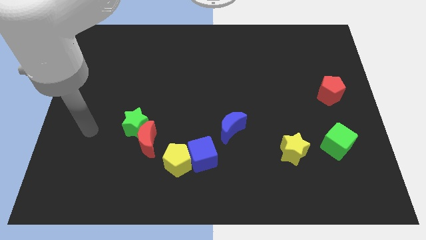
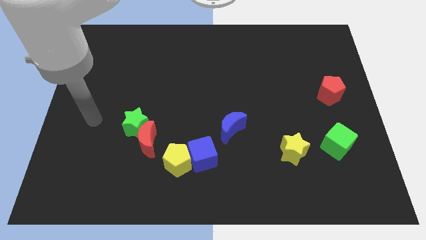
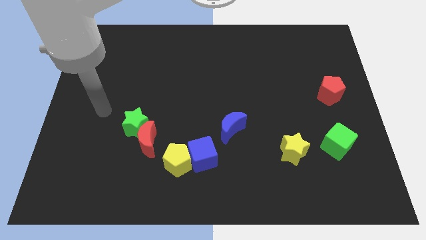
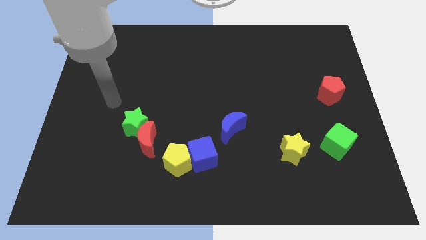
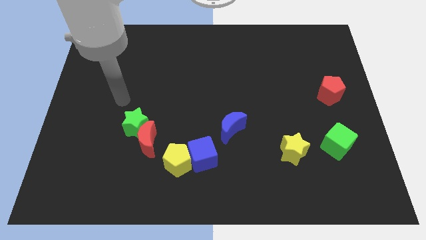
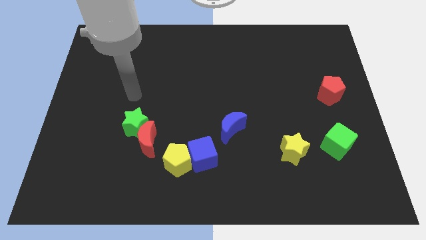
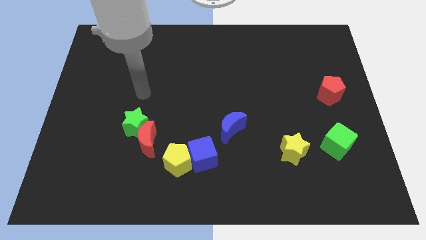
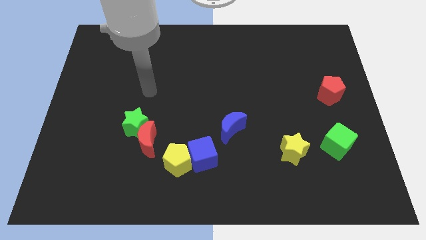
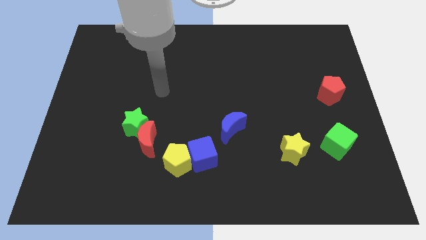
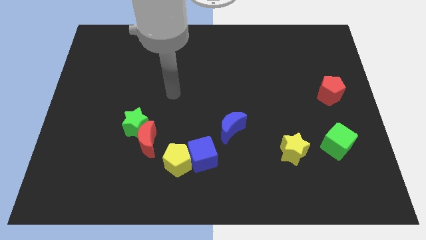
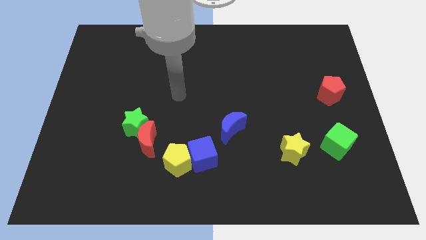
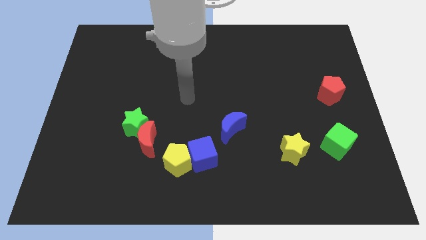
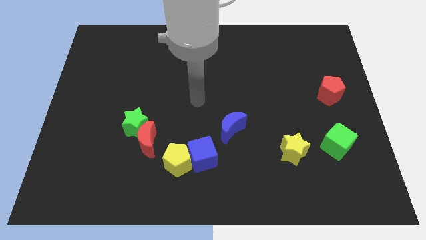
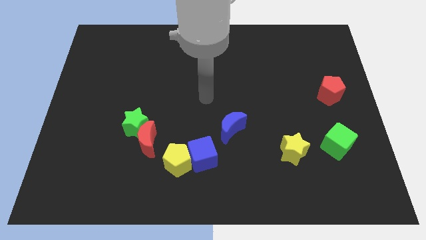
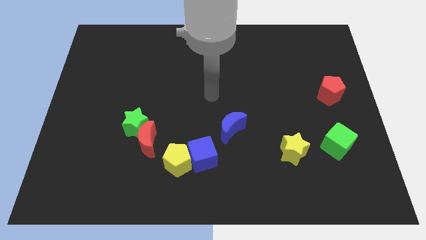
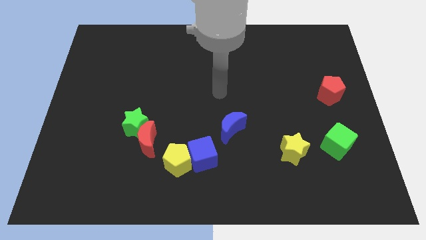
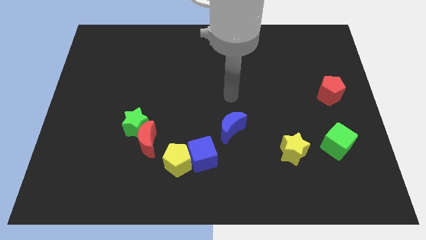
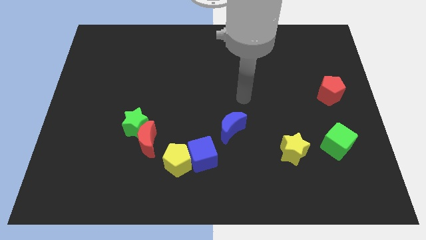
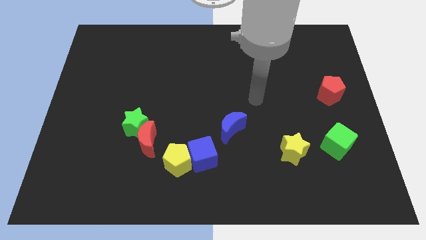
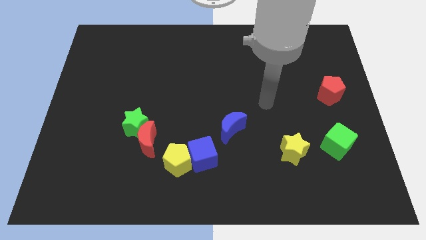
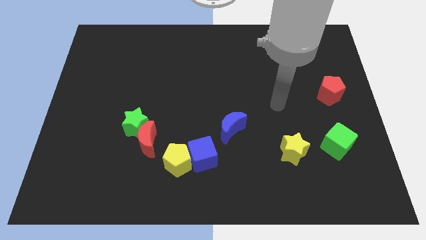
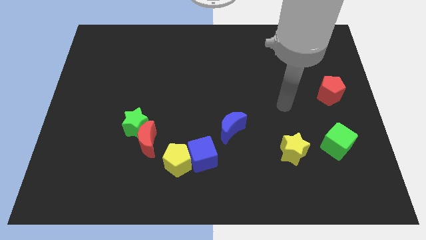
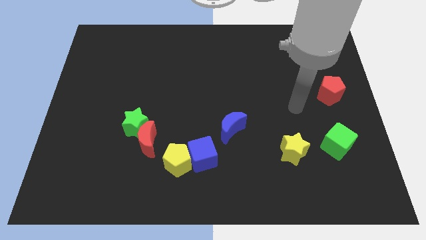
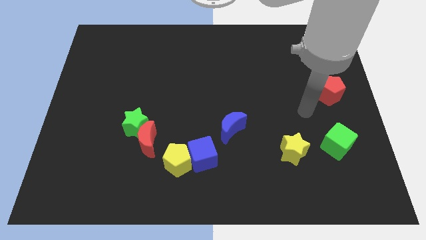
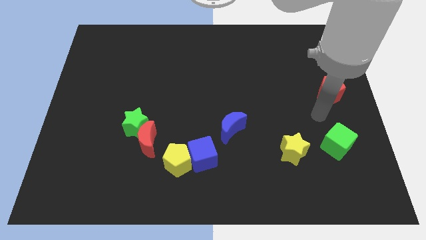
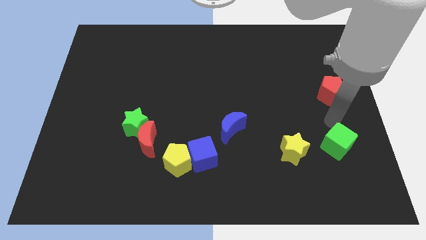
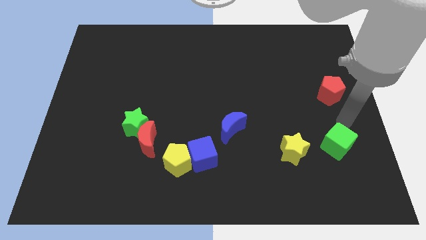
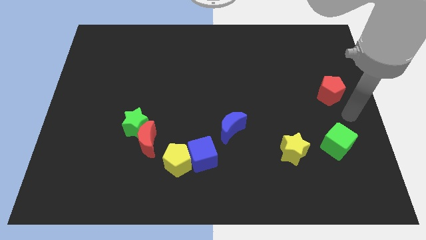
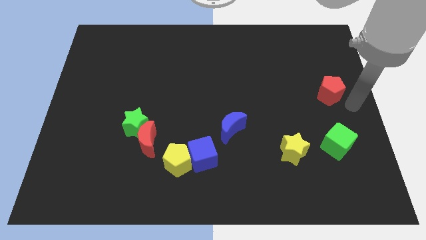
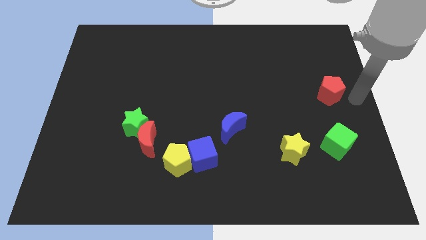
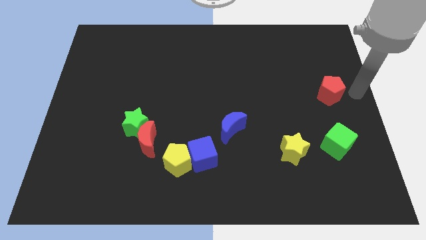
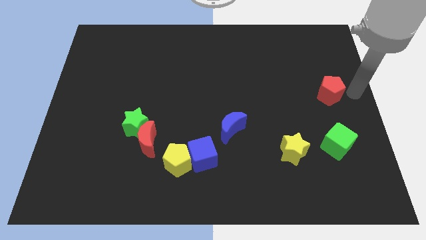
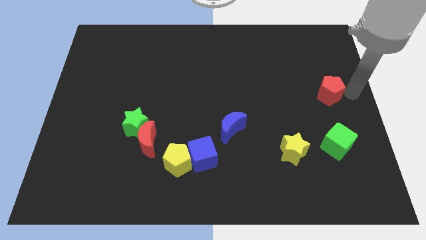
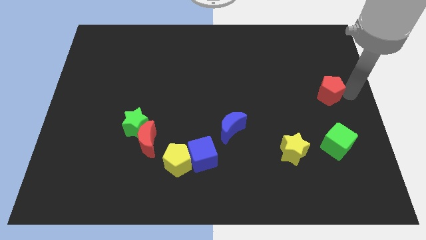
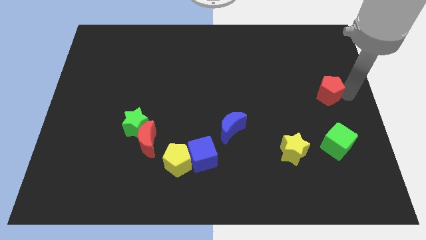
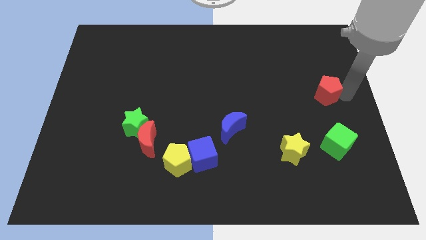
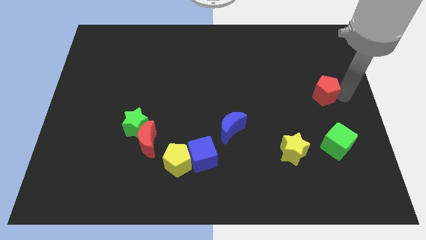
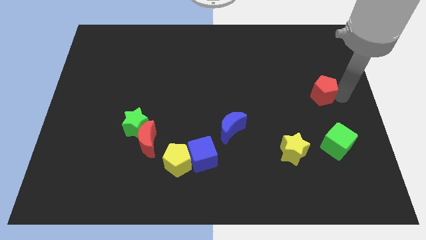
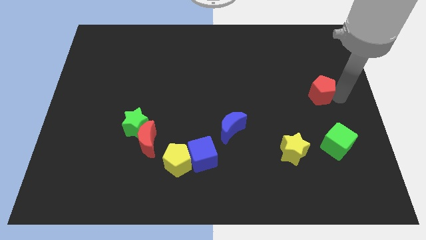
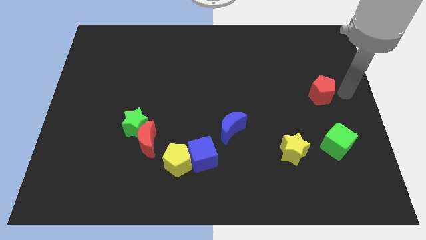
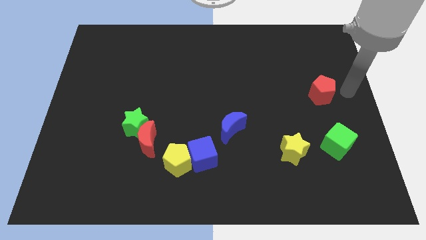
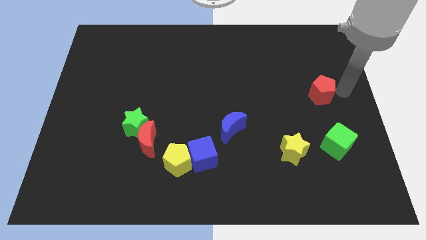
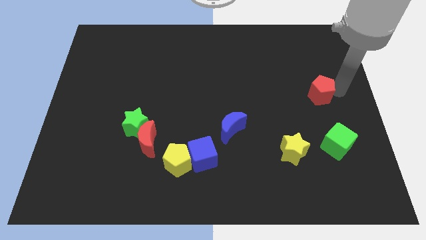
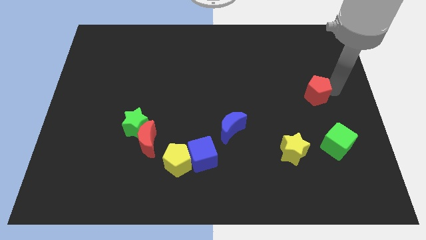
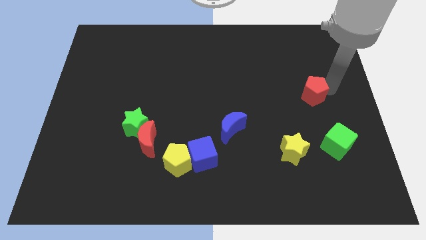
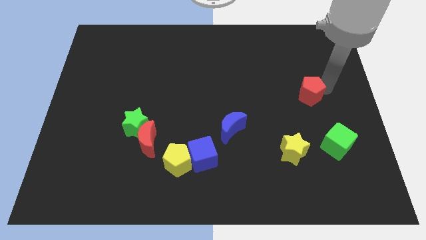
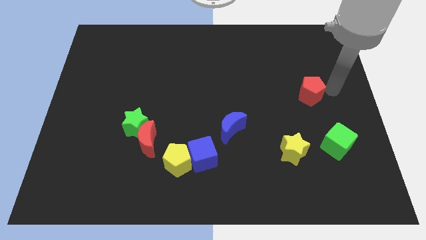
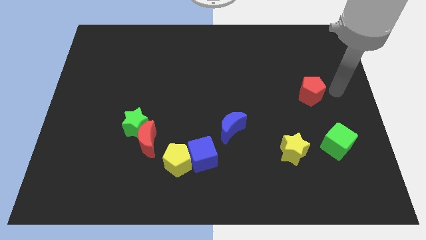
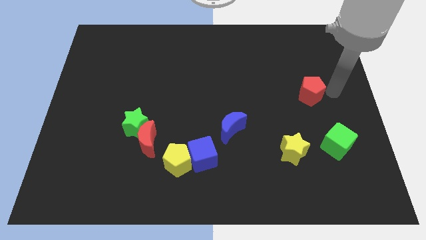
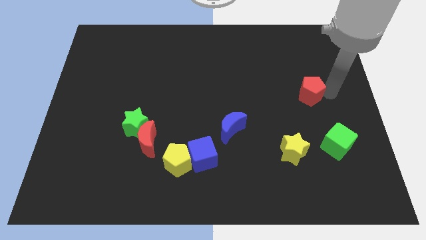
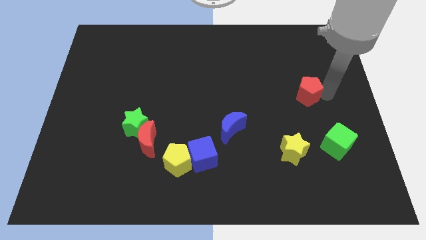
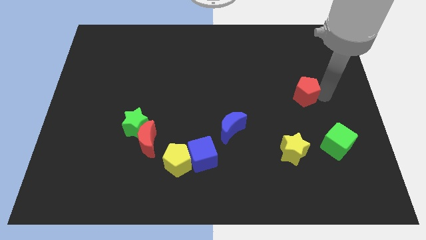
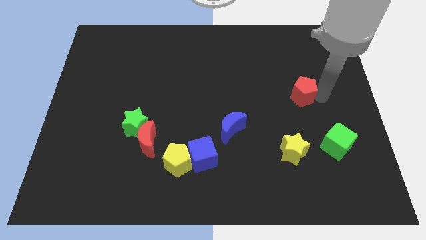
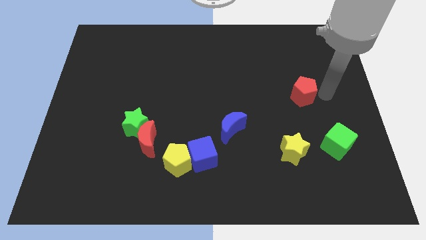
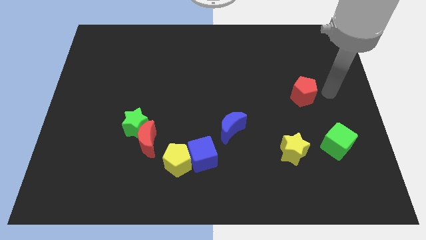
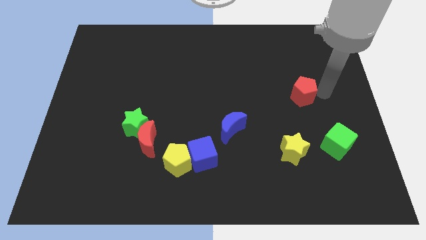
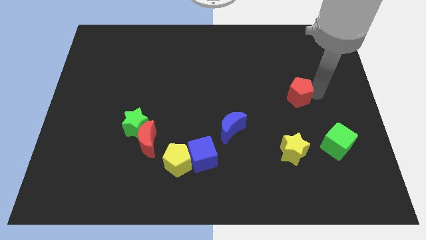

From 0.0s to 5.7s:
slide the red pentagon to the left a little

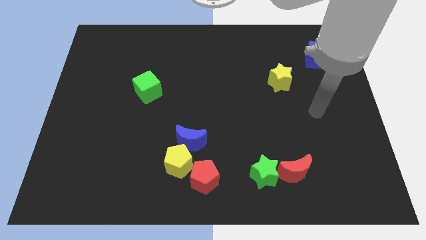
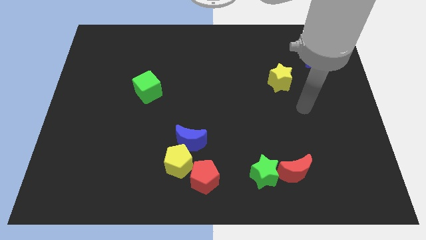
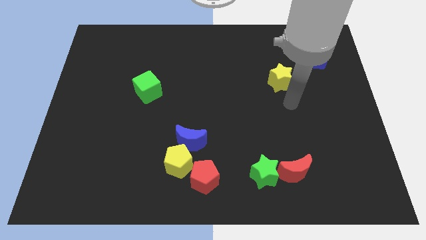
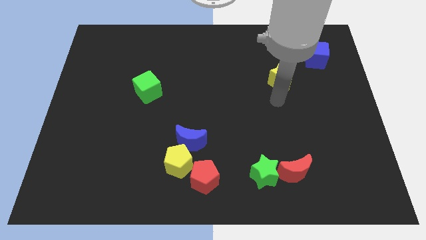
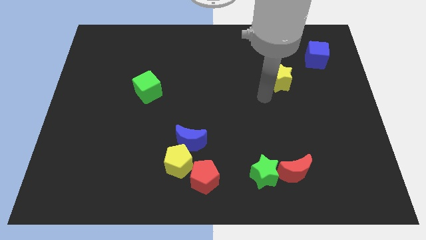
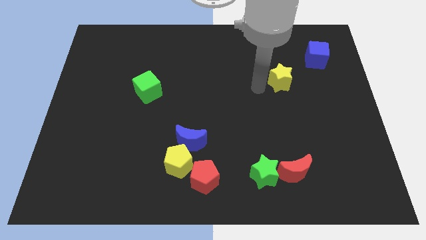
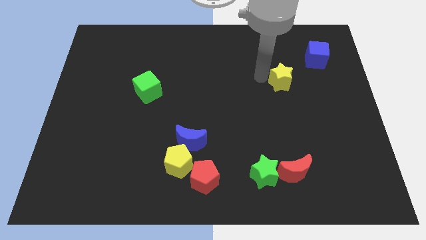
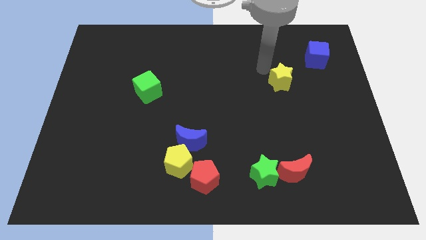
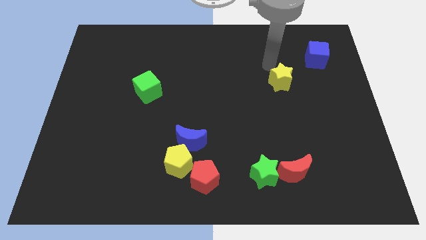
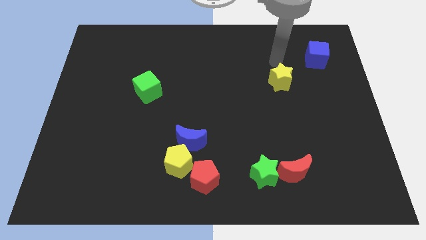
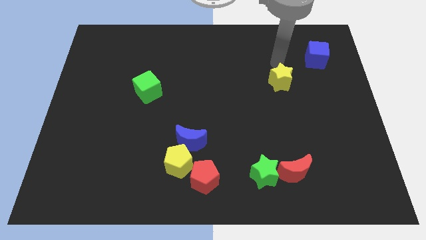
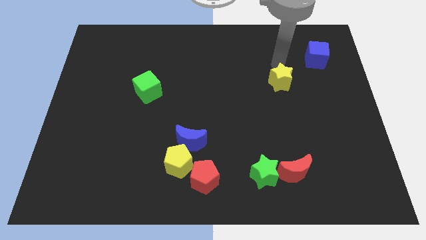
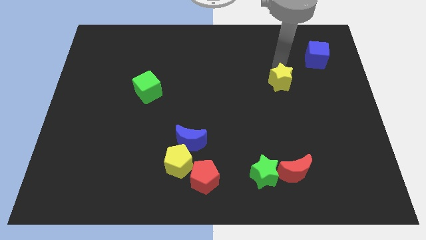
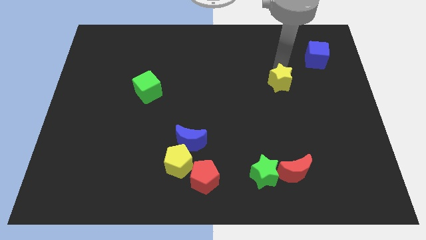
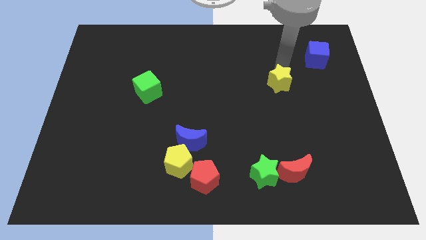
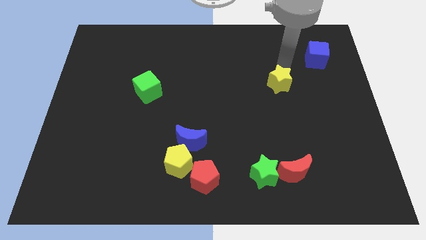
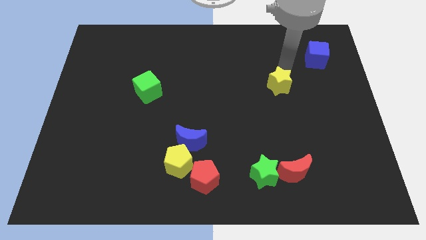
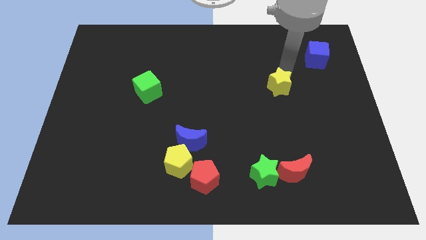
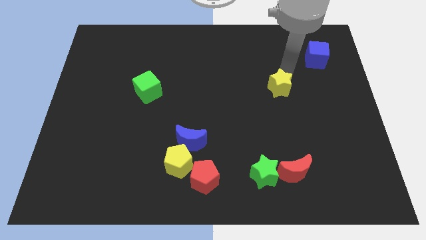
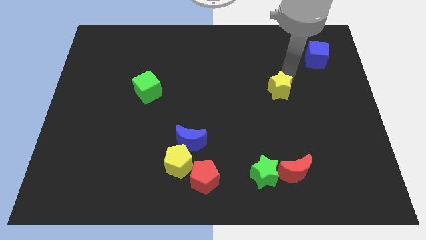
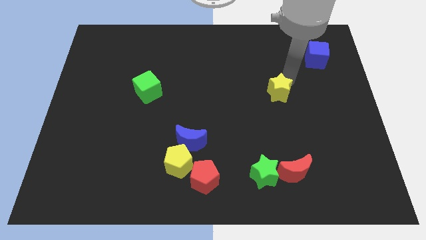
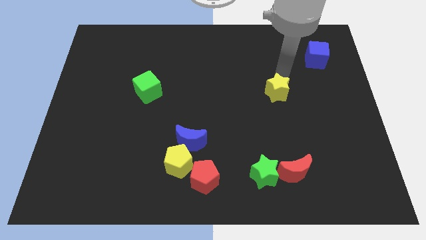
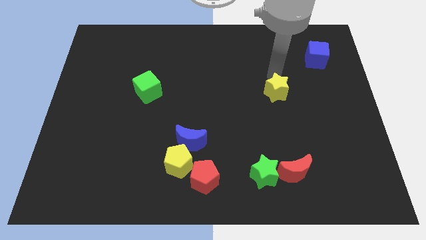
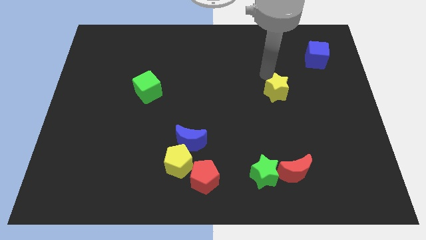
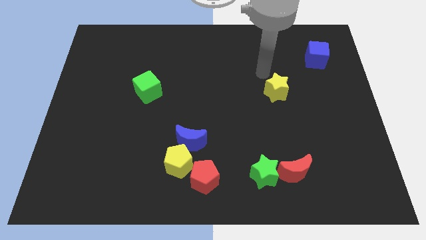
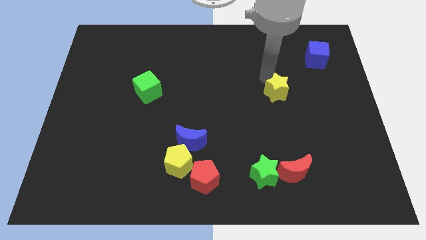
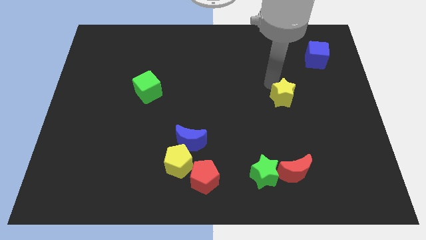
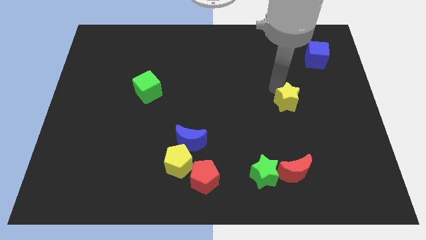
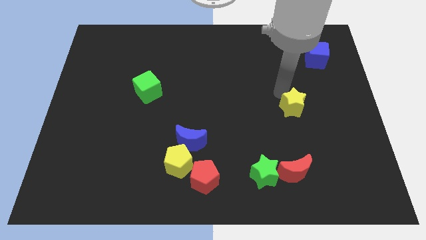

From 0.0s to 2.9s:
move the yellow star a bit down
